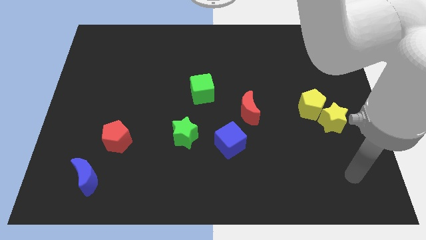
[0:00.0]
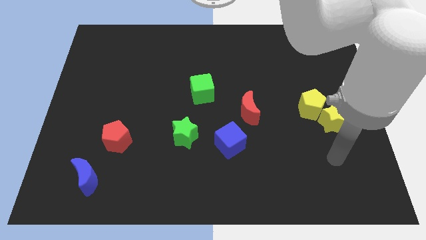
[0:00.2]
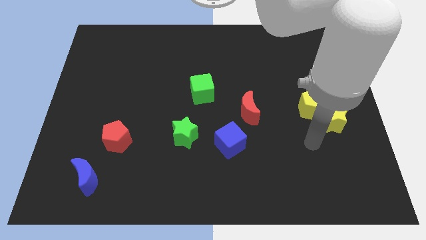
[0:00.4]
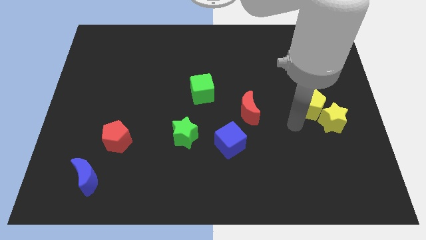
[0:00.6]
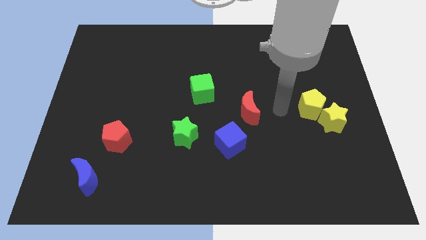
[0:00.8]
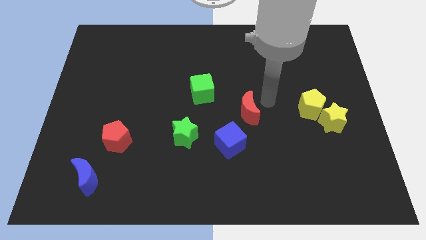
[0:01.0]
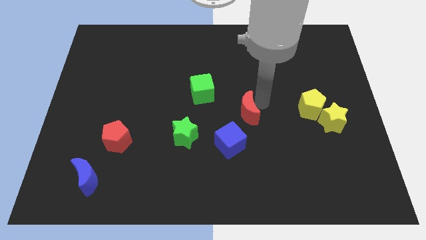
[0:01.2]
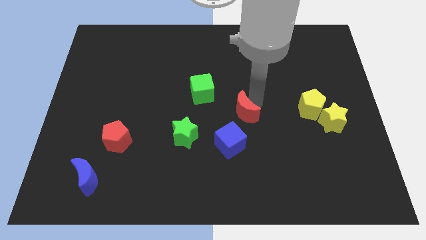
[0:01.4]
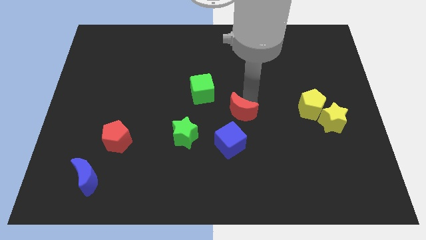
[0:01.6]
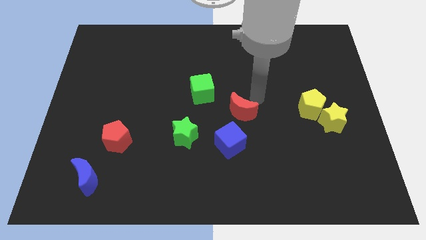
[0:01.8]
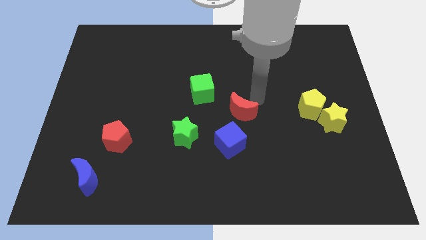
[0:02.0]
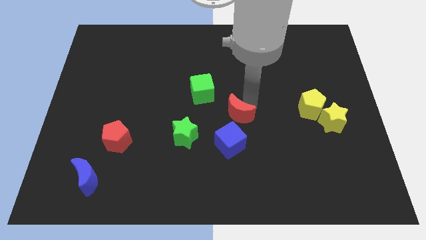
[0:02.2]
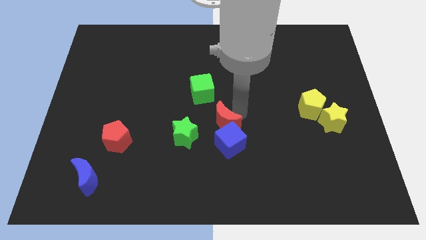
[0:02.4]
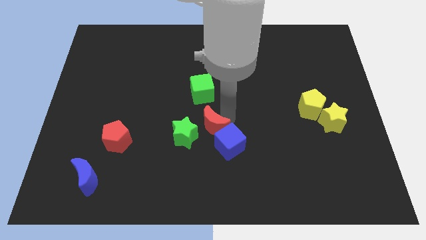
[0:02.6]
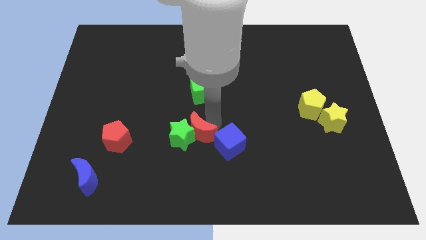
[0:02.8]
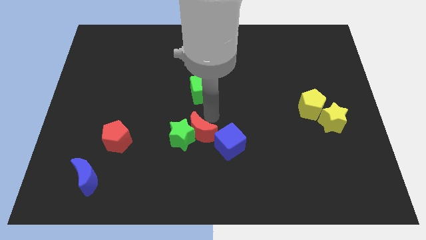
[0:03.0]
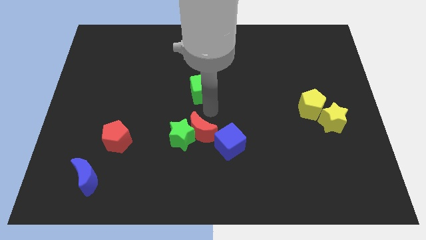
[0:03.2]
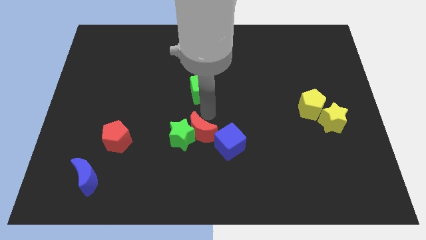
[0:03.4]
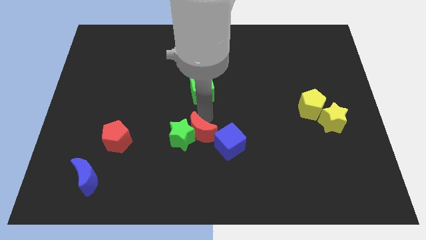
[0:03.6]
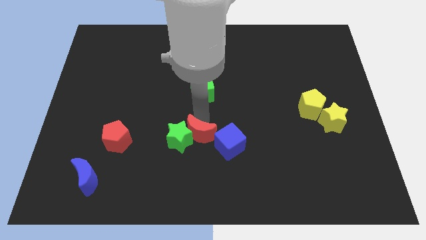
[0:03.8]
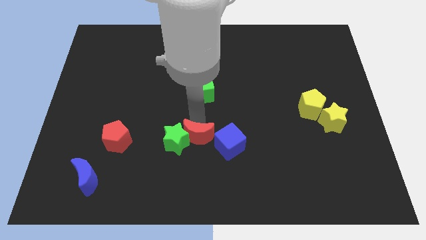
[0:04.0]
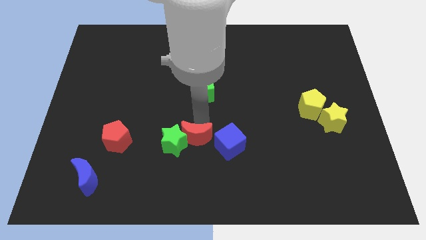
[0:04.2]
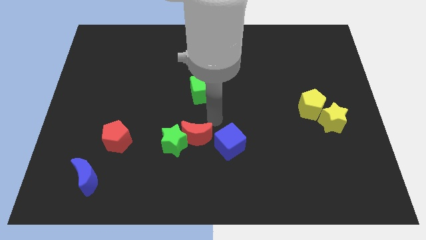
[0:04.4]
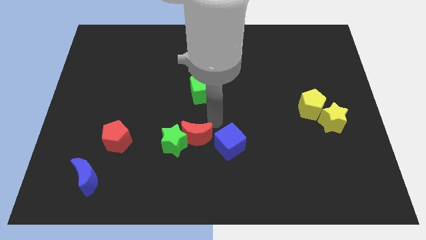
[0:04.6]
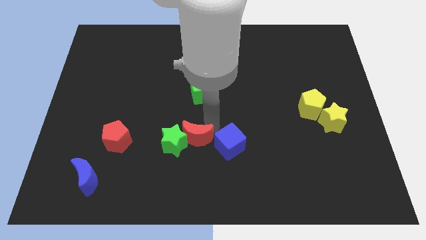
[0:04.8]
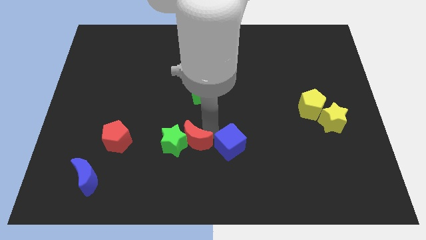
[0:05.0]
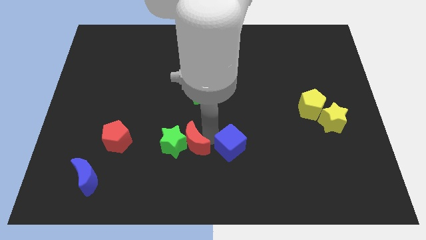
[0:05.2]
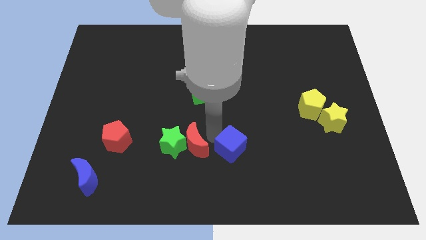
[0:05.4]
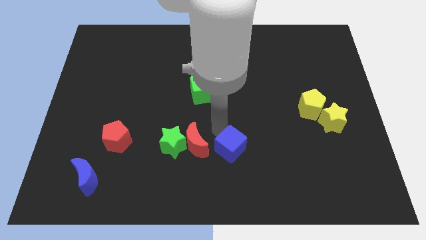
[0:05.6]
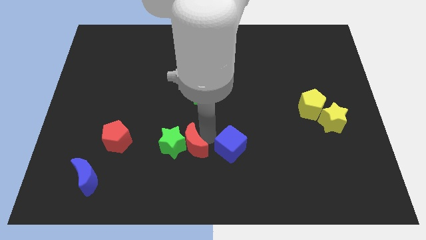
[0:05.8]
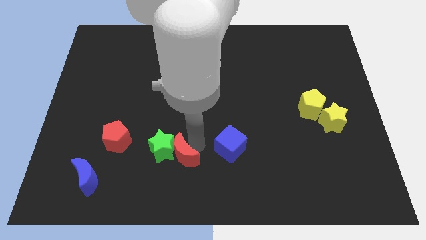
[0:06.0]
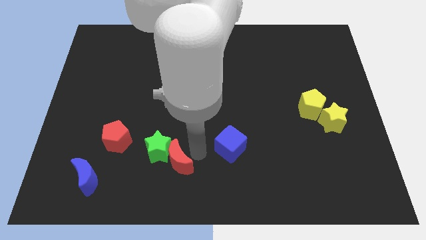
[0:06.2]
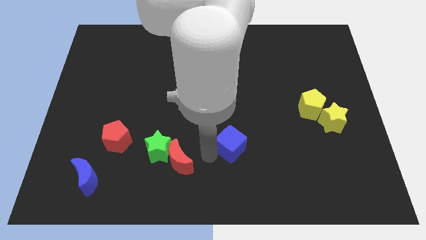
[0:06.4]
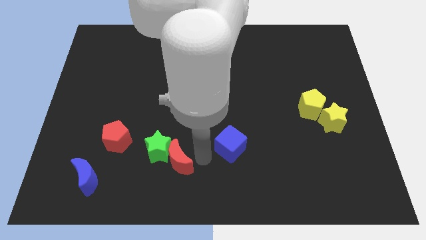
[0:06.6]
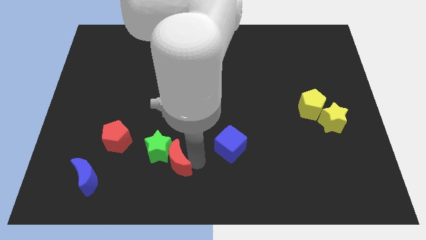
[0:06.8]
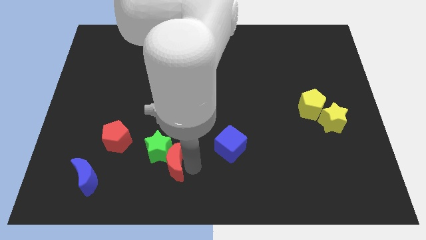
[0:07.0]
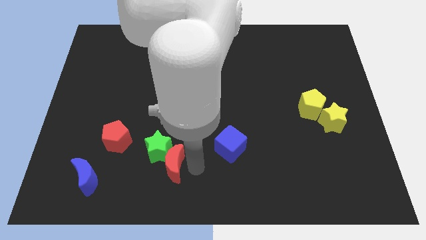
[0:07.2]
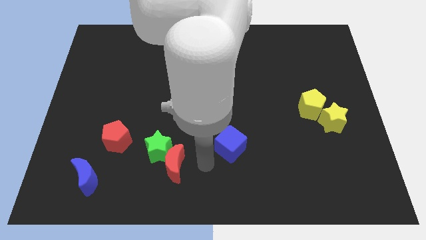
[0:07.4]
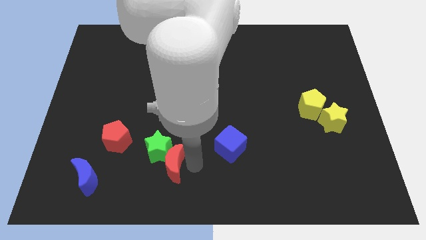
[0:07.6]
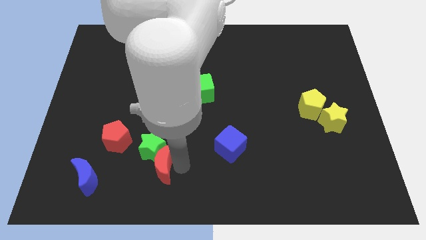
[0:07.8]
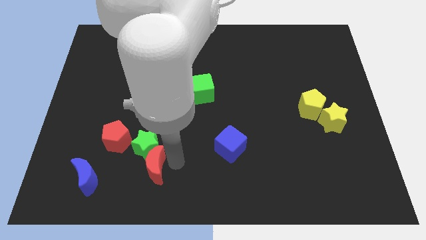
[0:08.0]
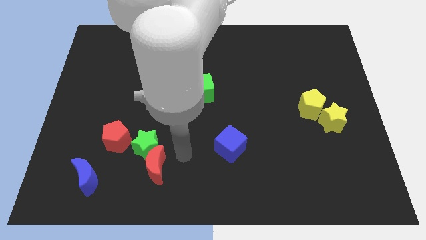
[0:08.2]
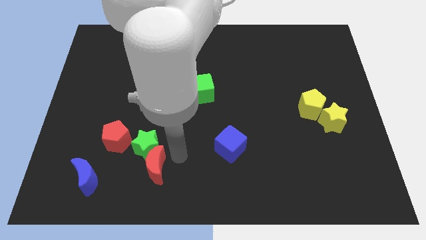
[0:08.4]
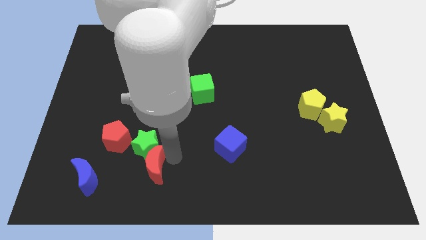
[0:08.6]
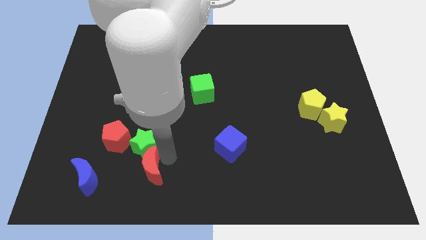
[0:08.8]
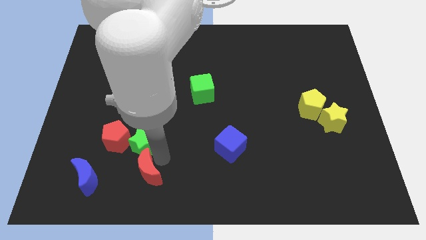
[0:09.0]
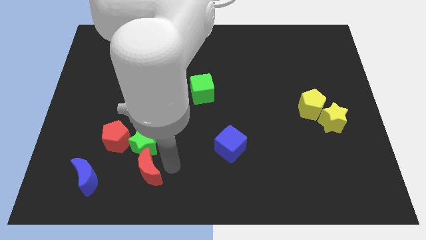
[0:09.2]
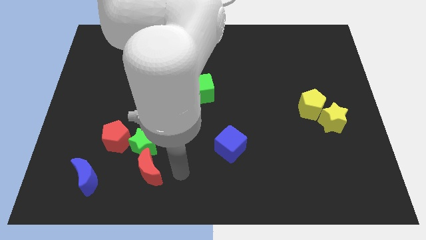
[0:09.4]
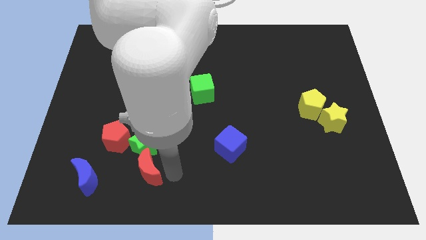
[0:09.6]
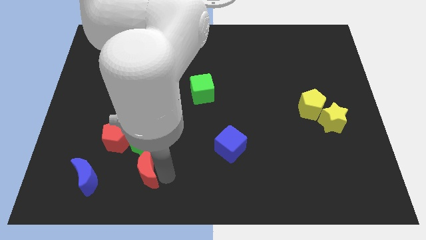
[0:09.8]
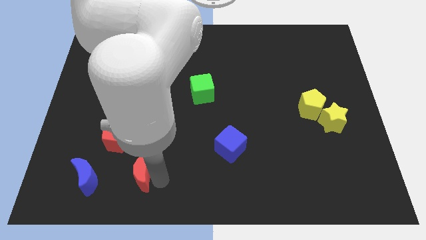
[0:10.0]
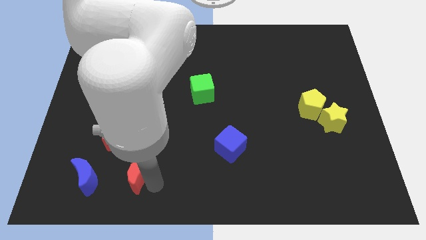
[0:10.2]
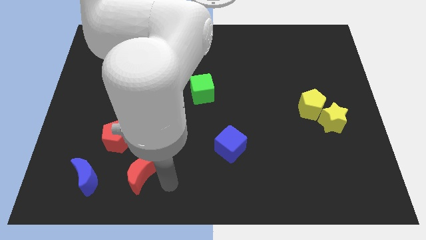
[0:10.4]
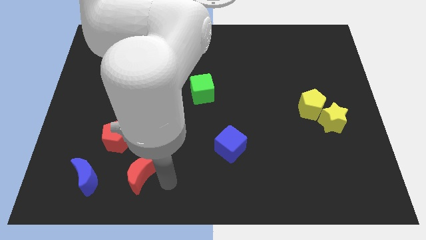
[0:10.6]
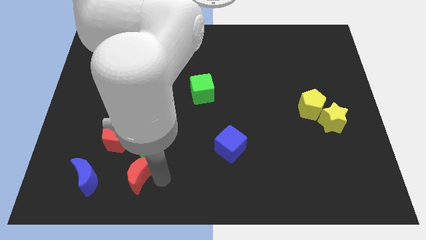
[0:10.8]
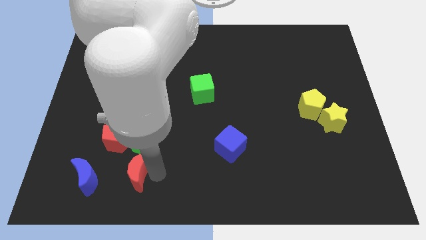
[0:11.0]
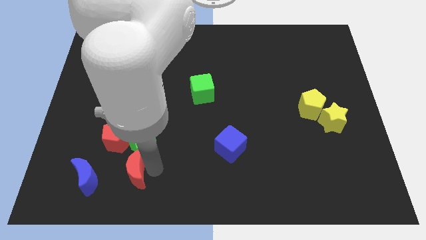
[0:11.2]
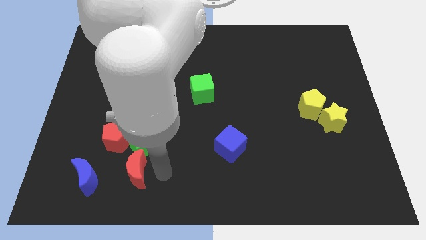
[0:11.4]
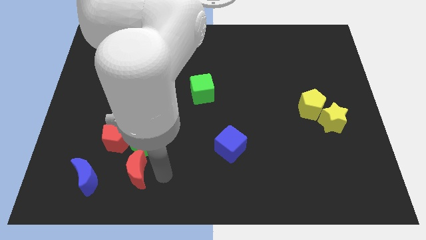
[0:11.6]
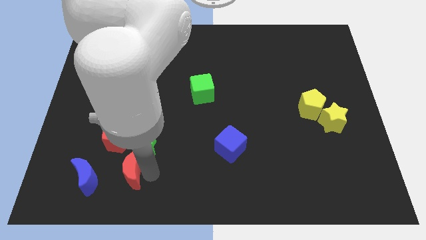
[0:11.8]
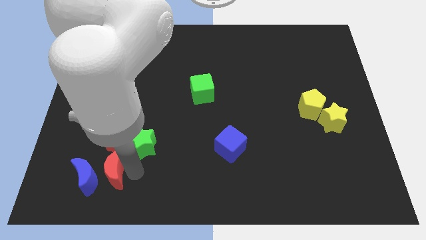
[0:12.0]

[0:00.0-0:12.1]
move the red moon next to the blue moon

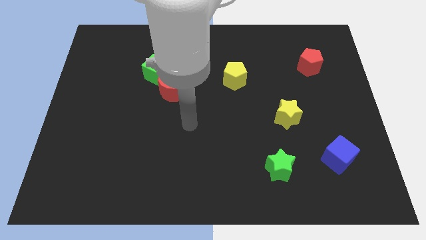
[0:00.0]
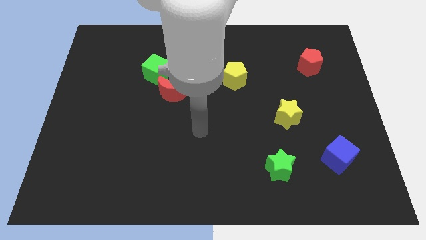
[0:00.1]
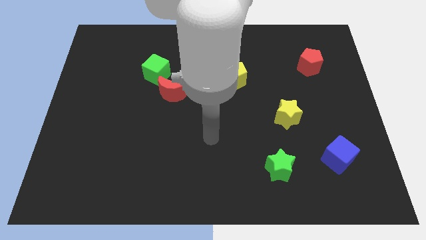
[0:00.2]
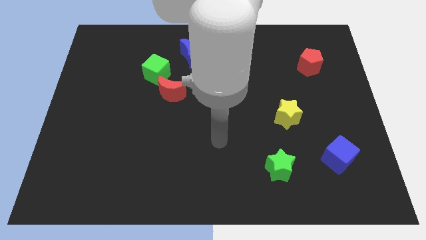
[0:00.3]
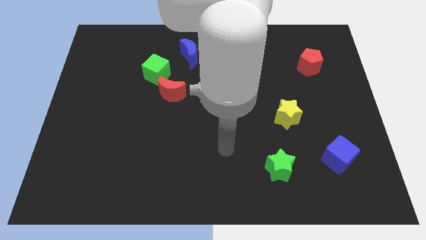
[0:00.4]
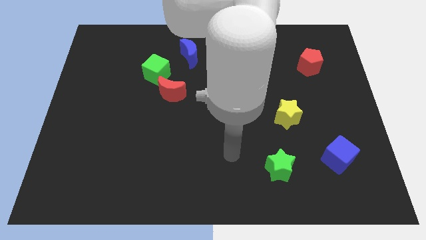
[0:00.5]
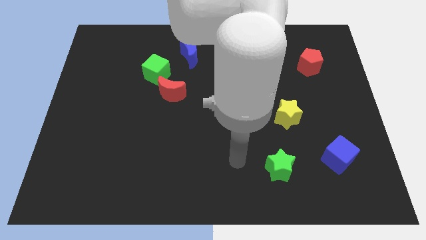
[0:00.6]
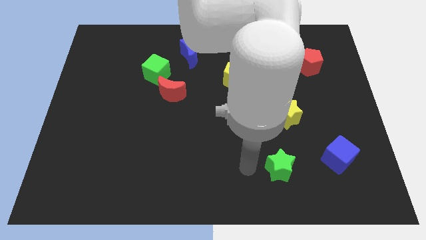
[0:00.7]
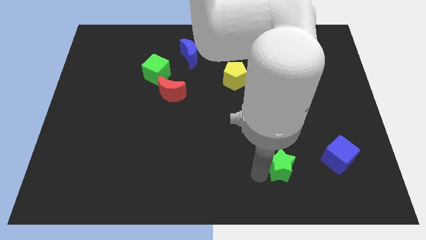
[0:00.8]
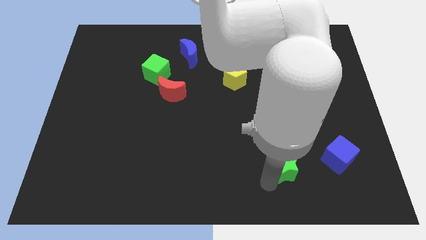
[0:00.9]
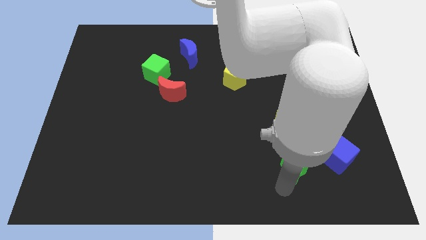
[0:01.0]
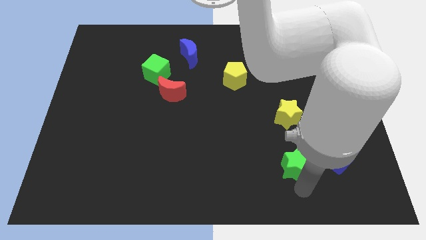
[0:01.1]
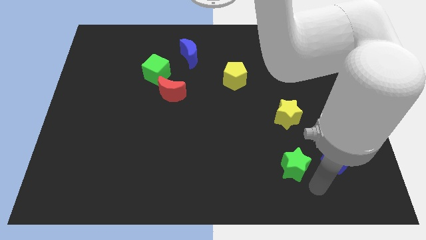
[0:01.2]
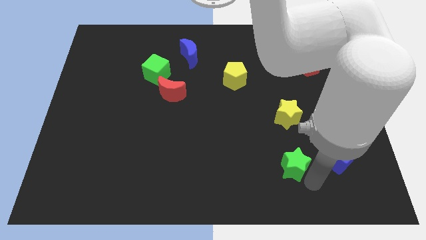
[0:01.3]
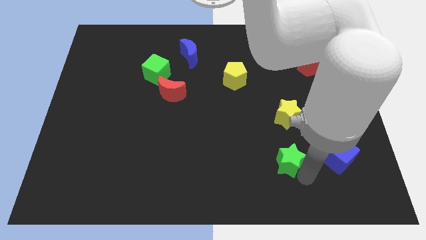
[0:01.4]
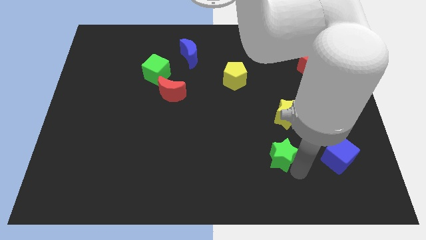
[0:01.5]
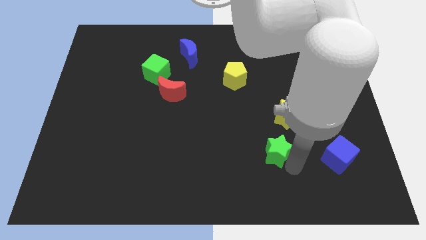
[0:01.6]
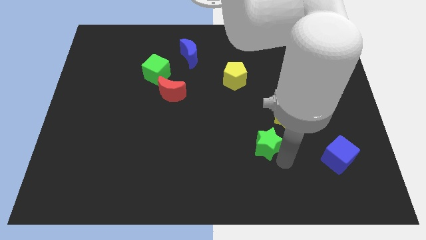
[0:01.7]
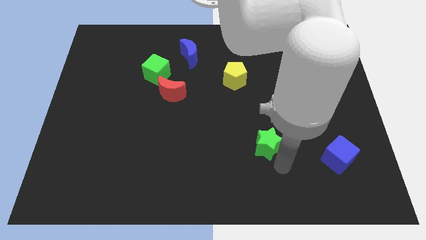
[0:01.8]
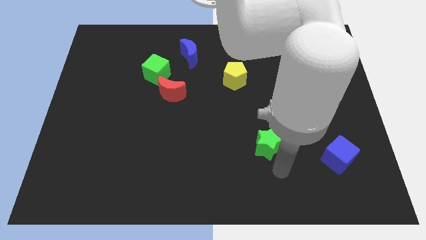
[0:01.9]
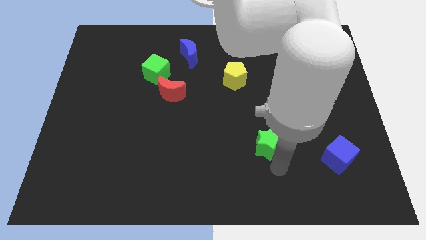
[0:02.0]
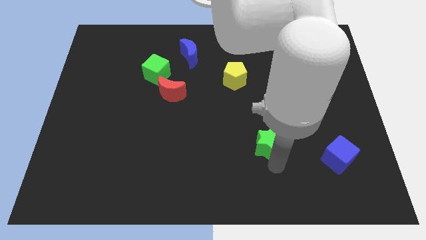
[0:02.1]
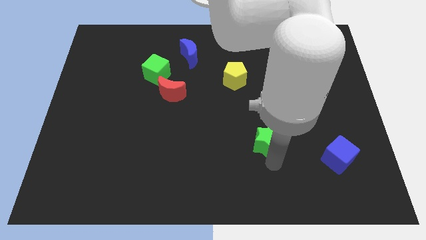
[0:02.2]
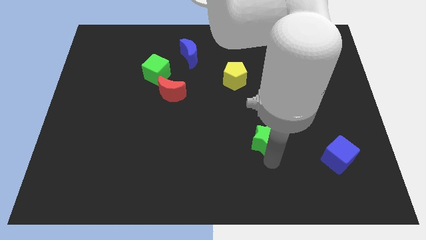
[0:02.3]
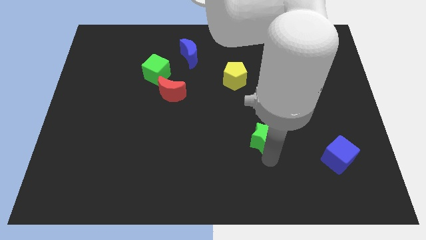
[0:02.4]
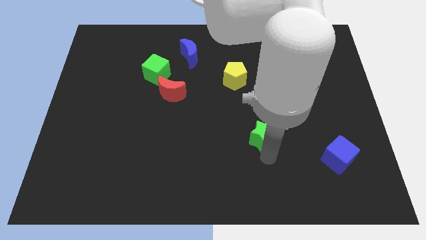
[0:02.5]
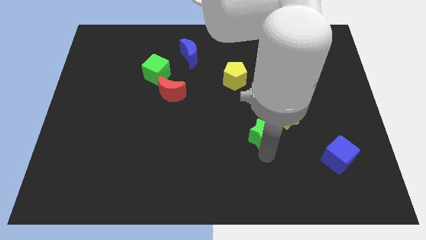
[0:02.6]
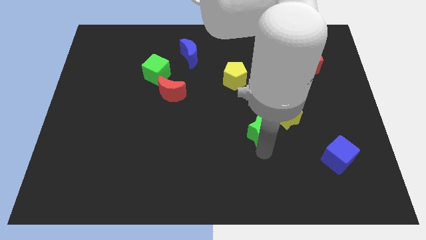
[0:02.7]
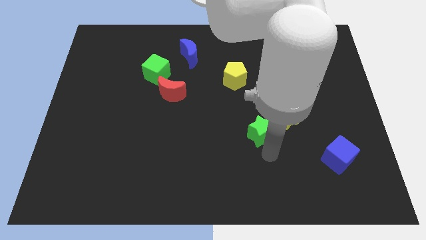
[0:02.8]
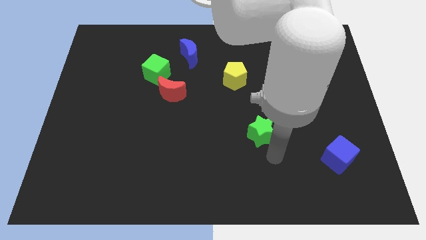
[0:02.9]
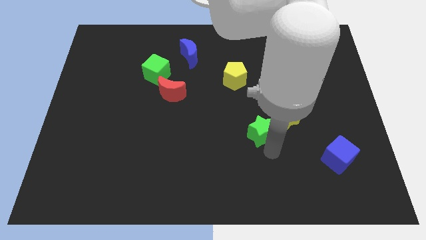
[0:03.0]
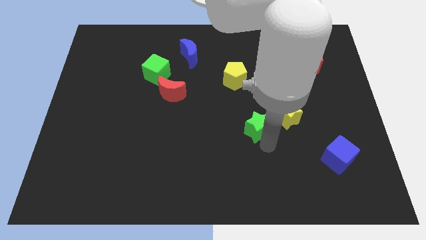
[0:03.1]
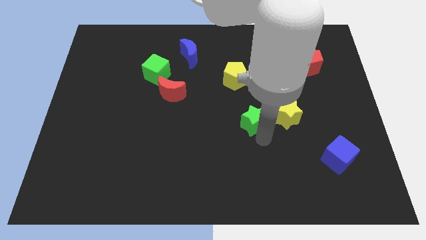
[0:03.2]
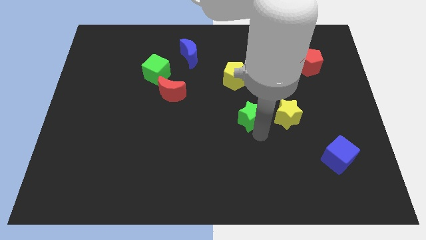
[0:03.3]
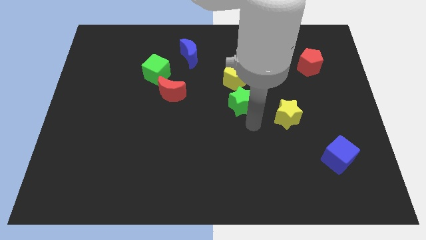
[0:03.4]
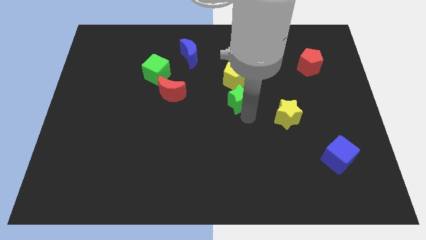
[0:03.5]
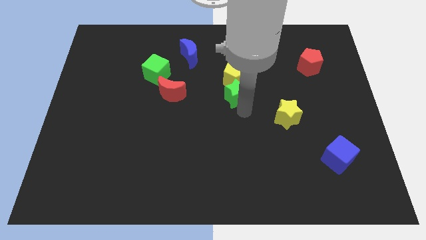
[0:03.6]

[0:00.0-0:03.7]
move the green star towards the yellow pentagon
